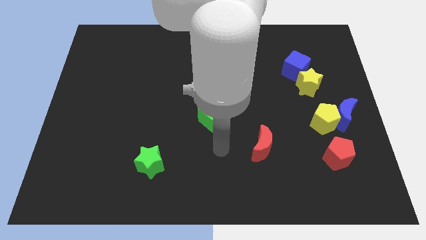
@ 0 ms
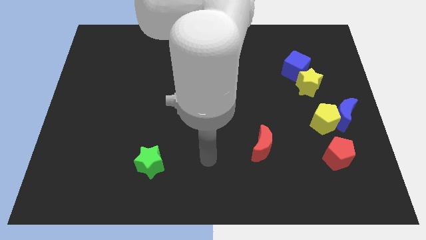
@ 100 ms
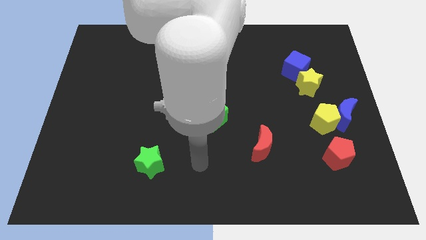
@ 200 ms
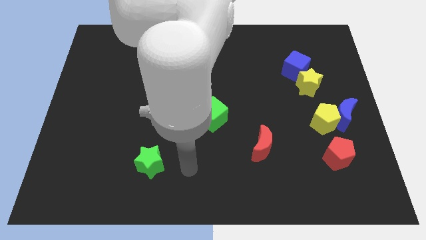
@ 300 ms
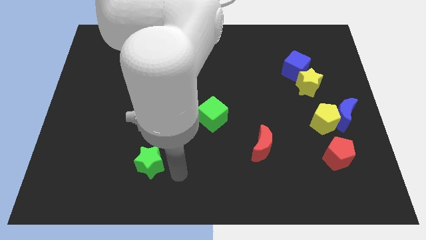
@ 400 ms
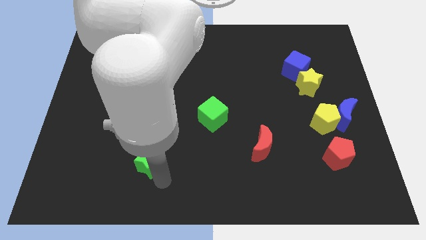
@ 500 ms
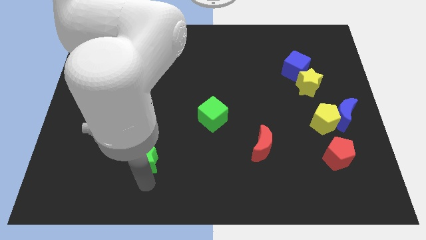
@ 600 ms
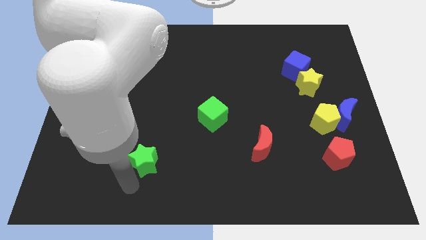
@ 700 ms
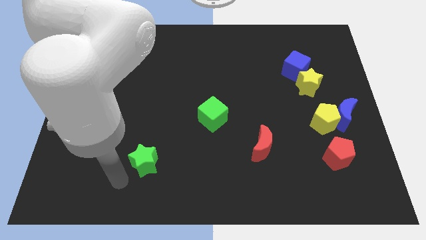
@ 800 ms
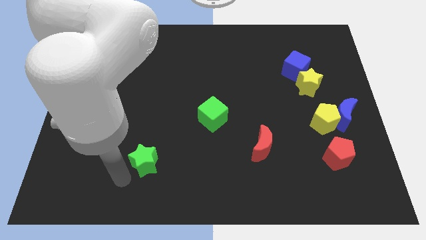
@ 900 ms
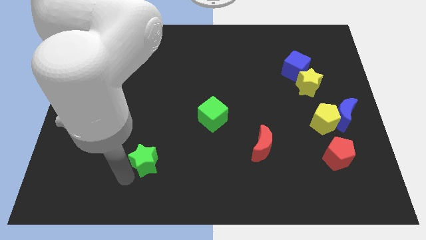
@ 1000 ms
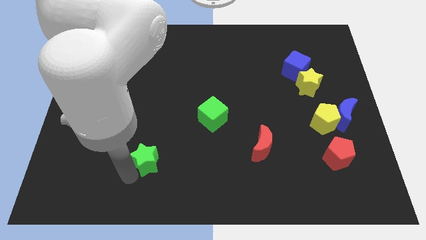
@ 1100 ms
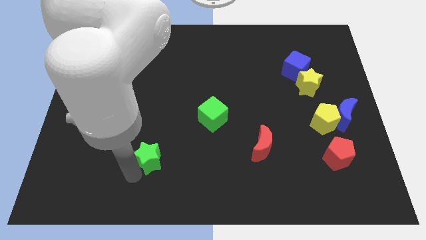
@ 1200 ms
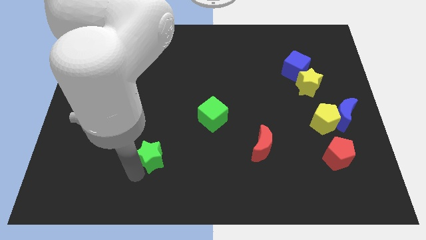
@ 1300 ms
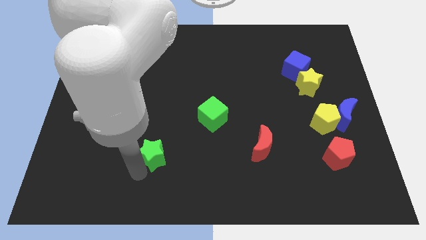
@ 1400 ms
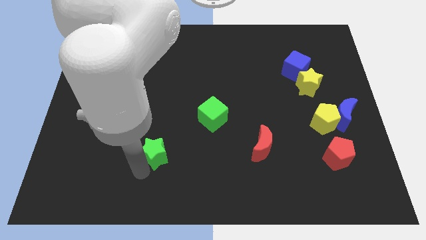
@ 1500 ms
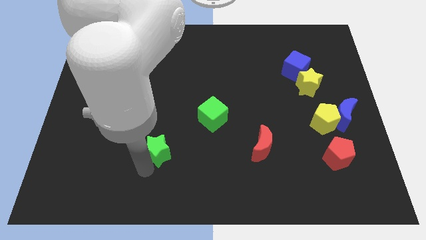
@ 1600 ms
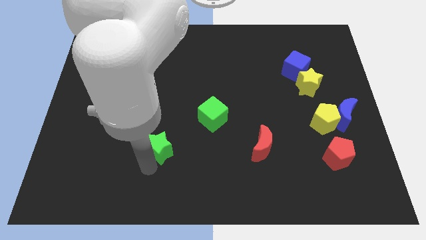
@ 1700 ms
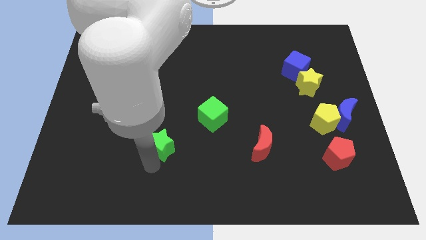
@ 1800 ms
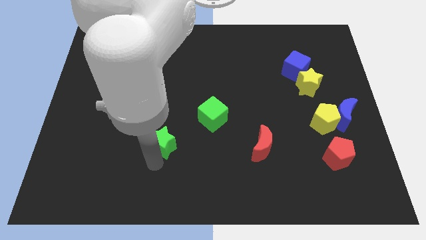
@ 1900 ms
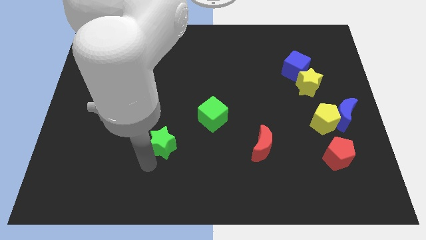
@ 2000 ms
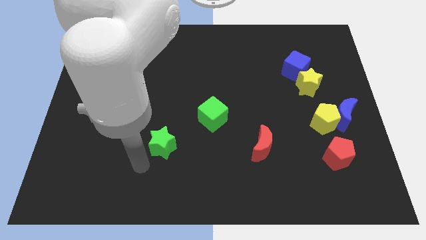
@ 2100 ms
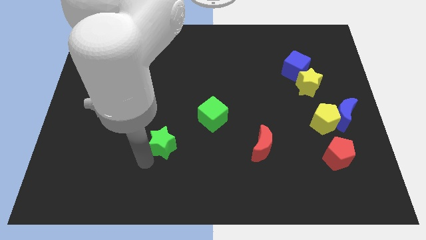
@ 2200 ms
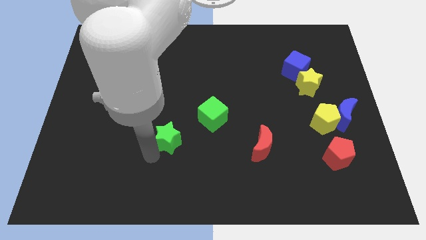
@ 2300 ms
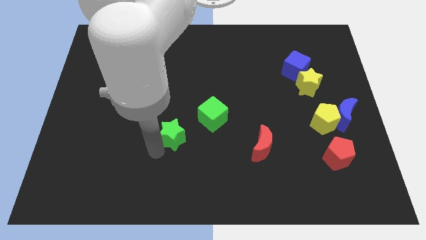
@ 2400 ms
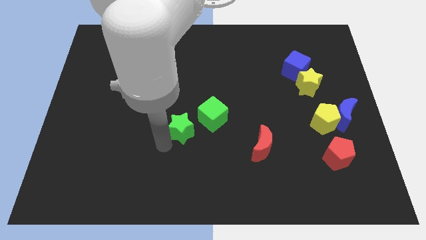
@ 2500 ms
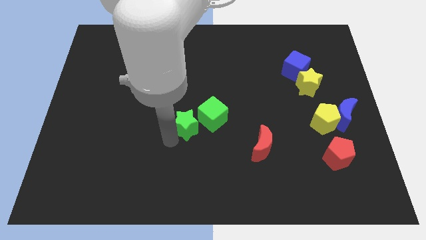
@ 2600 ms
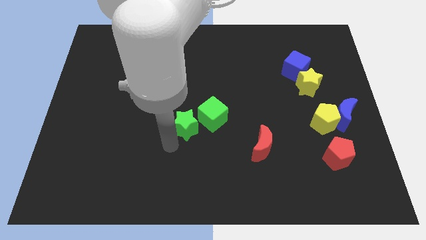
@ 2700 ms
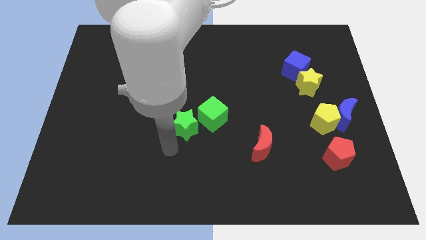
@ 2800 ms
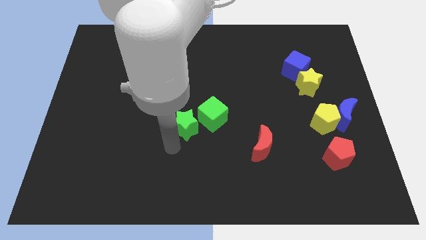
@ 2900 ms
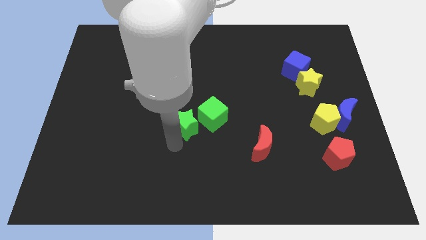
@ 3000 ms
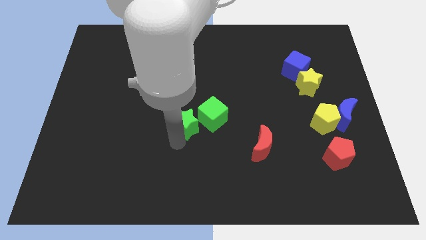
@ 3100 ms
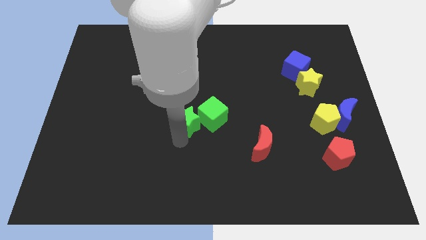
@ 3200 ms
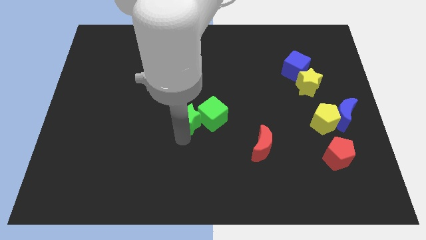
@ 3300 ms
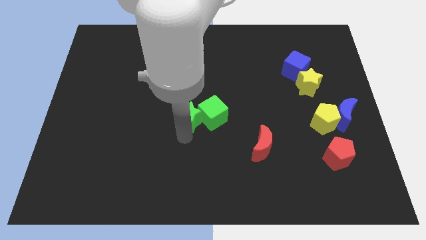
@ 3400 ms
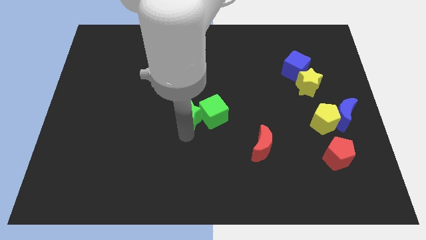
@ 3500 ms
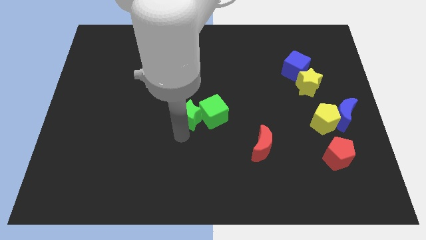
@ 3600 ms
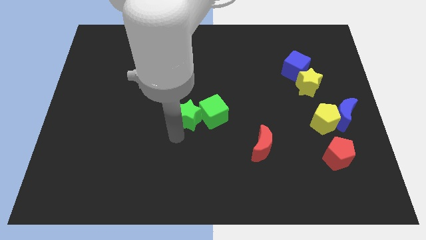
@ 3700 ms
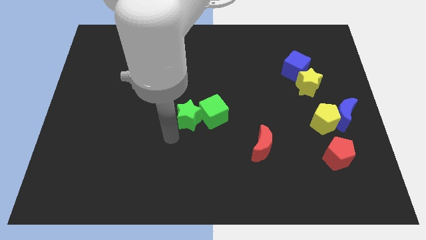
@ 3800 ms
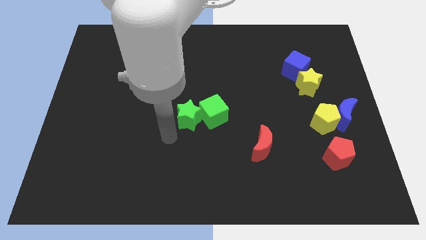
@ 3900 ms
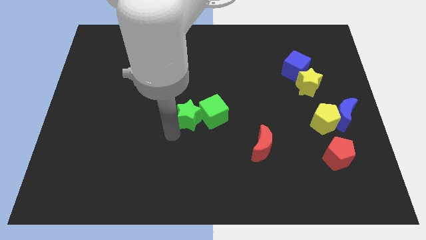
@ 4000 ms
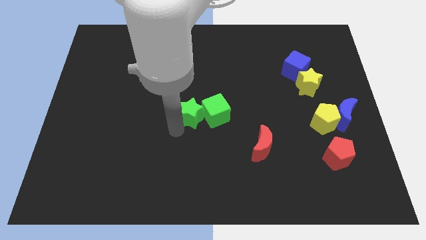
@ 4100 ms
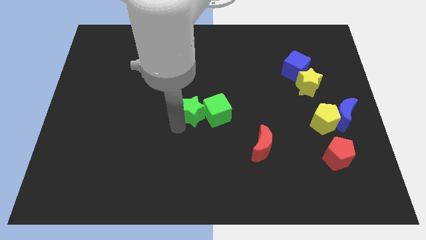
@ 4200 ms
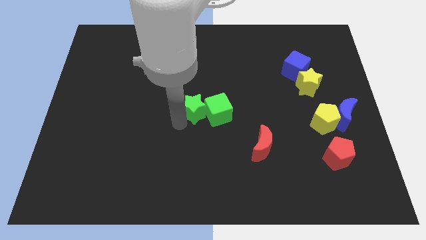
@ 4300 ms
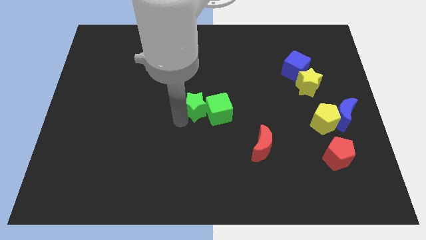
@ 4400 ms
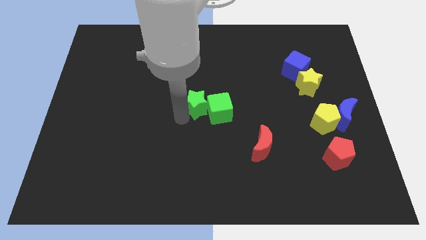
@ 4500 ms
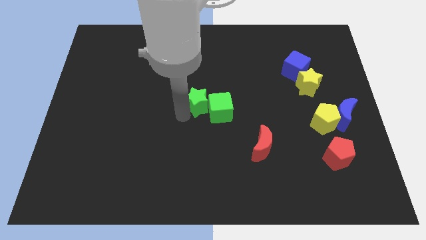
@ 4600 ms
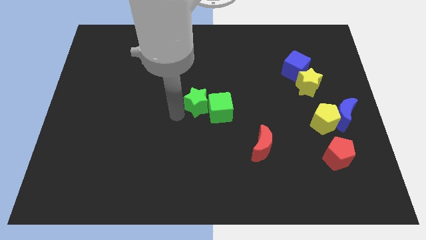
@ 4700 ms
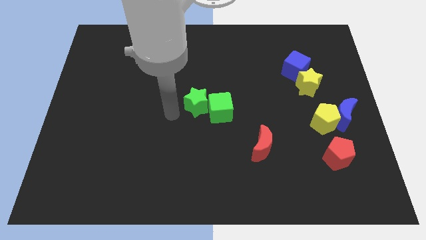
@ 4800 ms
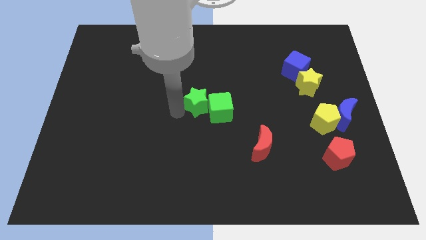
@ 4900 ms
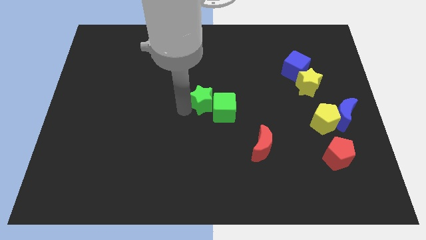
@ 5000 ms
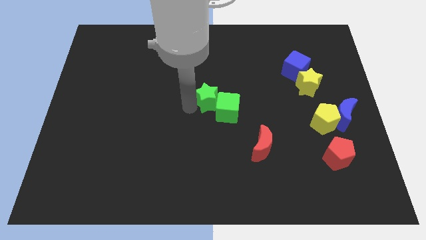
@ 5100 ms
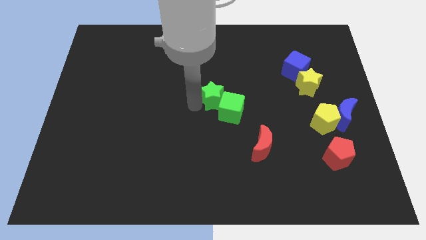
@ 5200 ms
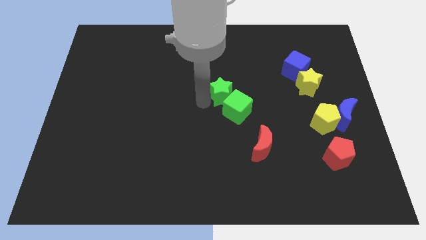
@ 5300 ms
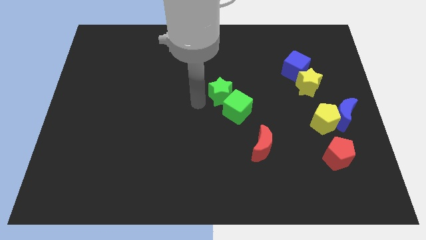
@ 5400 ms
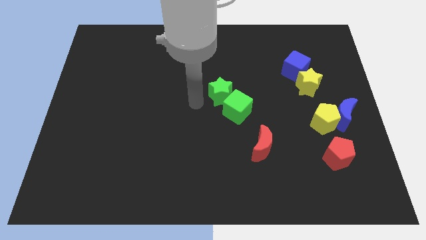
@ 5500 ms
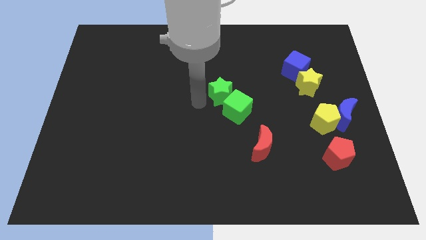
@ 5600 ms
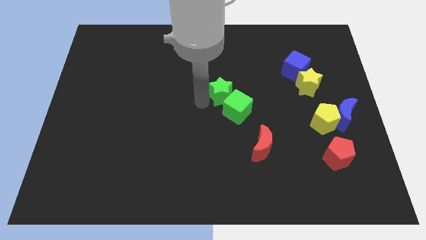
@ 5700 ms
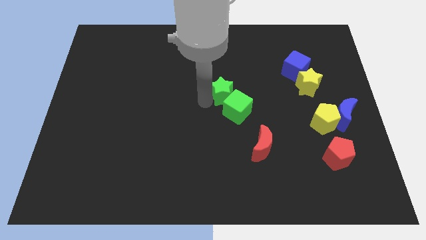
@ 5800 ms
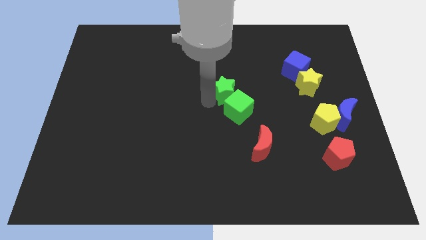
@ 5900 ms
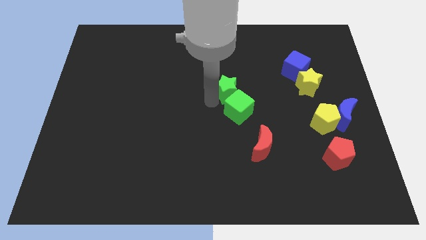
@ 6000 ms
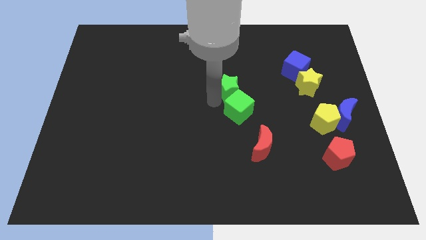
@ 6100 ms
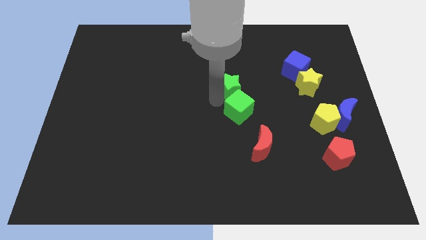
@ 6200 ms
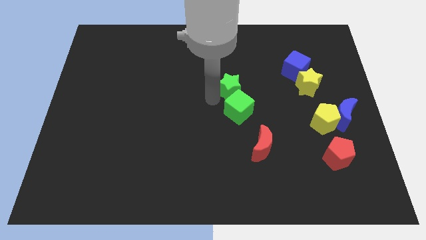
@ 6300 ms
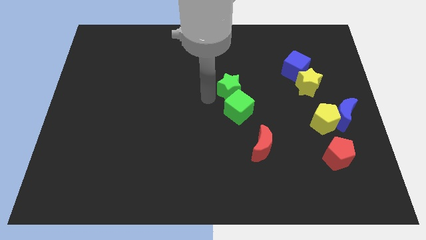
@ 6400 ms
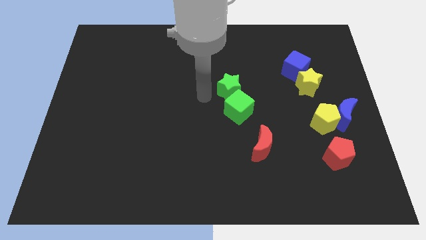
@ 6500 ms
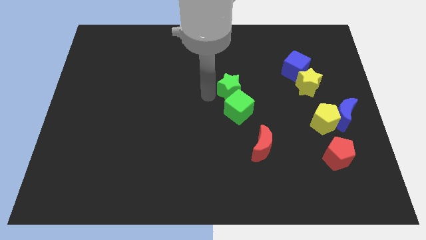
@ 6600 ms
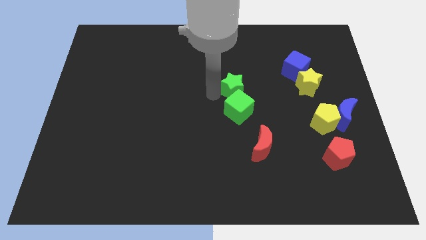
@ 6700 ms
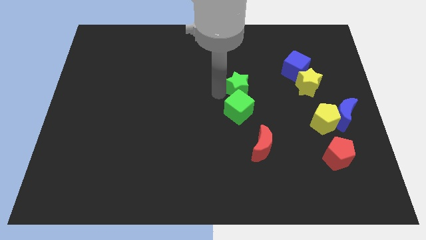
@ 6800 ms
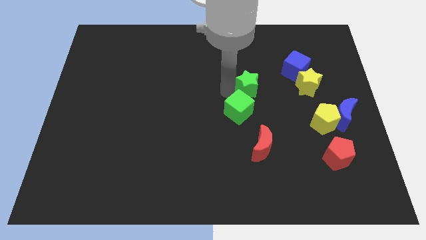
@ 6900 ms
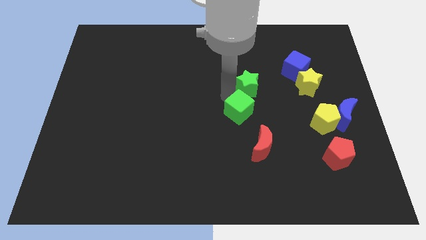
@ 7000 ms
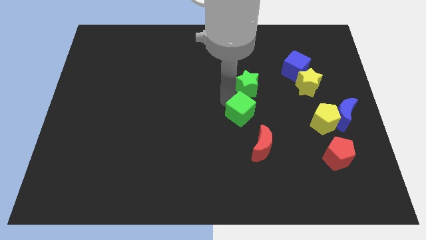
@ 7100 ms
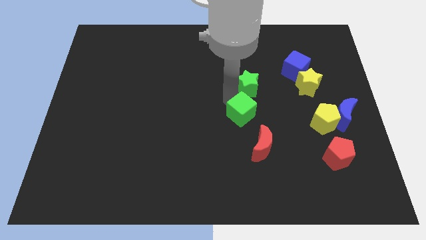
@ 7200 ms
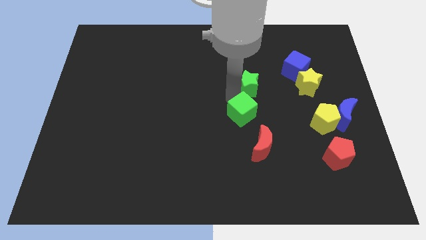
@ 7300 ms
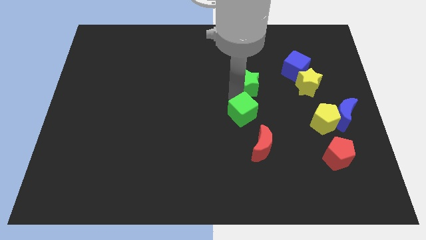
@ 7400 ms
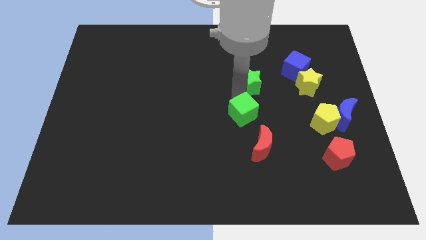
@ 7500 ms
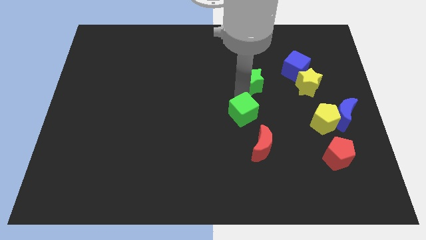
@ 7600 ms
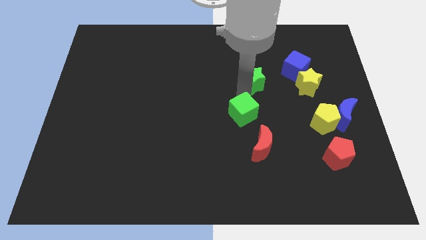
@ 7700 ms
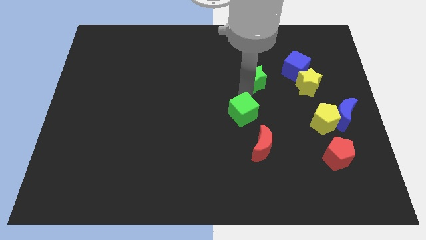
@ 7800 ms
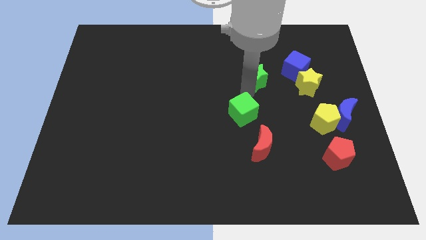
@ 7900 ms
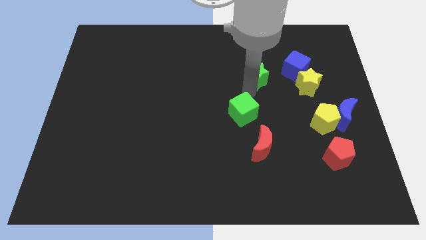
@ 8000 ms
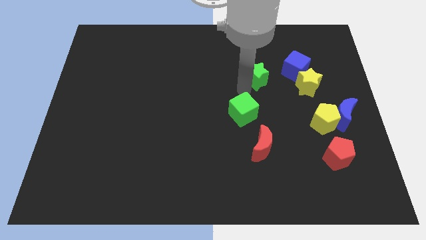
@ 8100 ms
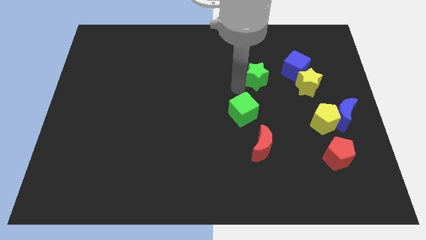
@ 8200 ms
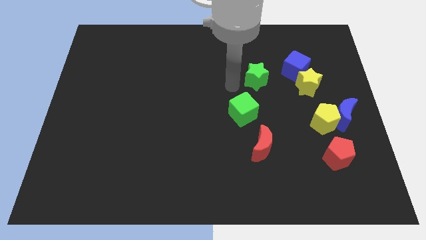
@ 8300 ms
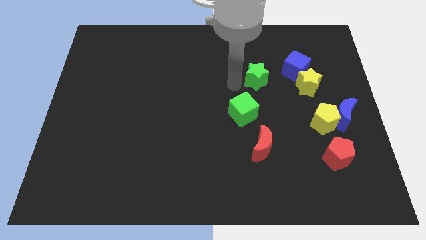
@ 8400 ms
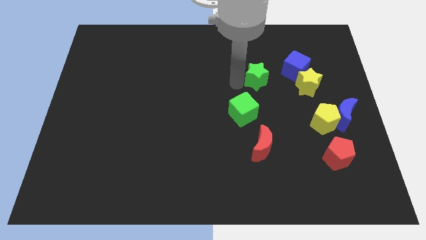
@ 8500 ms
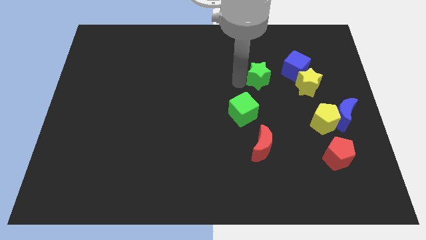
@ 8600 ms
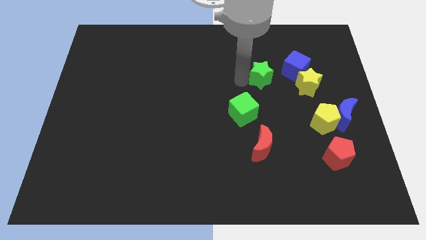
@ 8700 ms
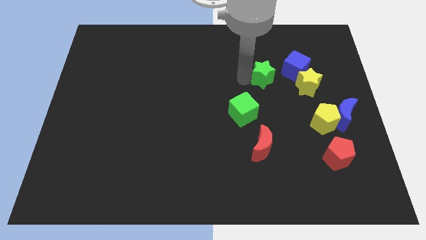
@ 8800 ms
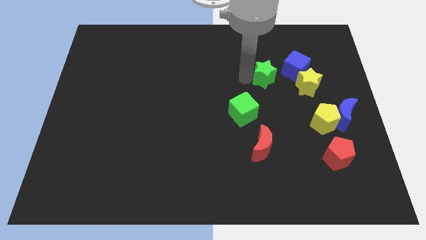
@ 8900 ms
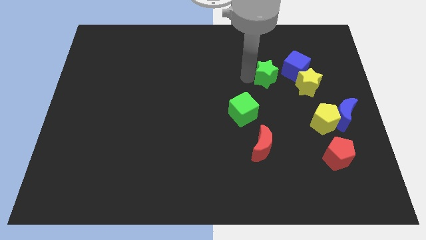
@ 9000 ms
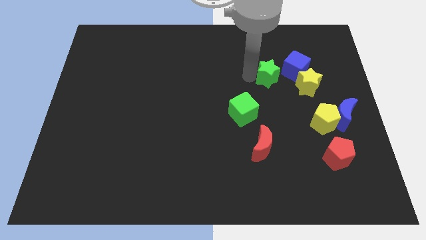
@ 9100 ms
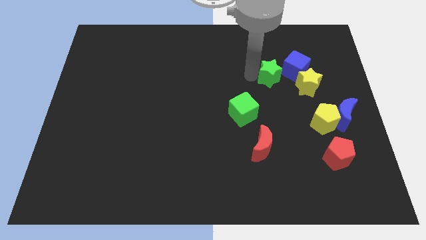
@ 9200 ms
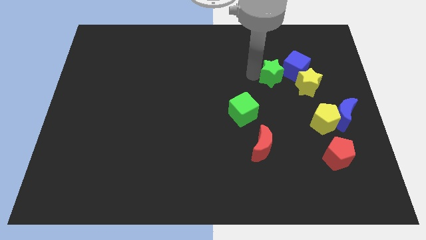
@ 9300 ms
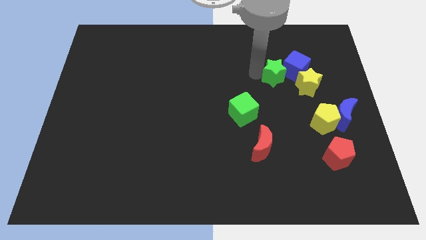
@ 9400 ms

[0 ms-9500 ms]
put the green star next to the blue cube
